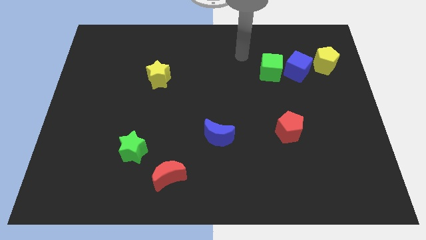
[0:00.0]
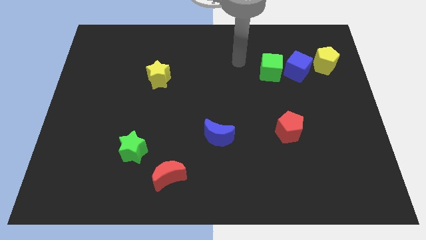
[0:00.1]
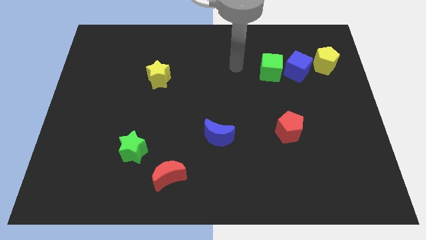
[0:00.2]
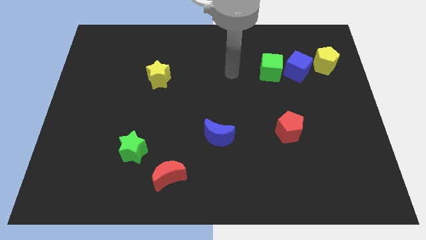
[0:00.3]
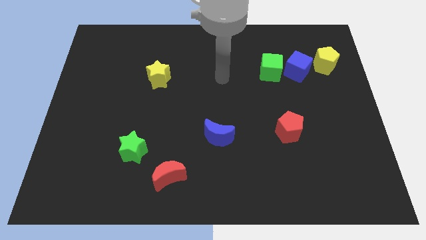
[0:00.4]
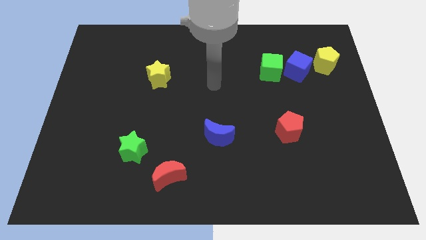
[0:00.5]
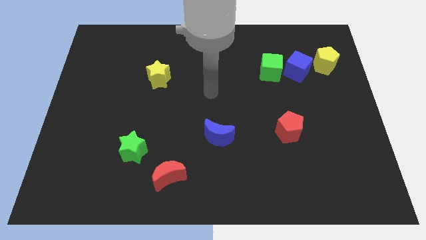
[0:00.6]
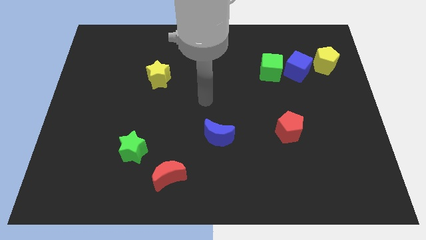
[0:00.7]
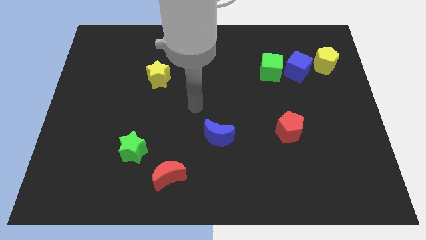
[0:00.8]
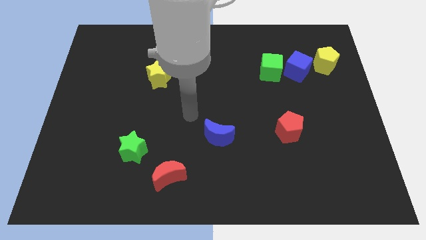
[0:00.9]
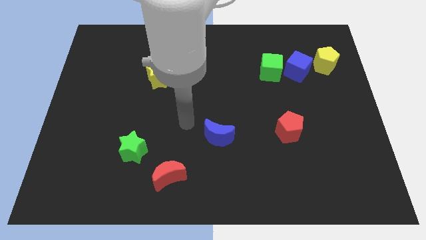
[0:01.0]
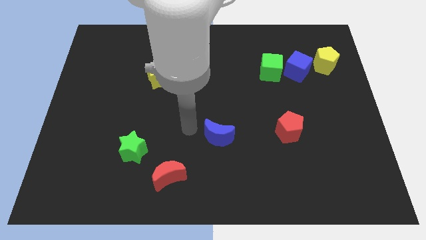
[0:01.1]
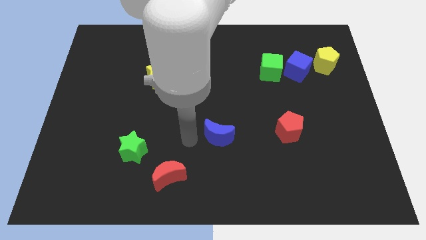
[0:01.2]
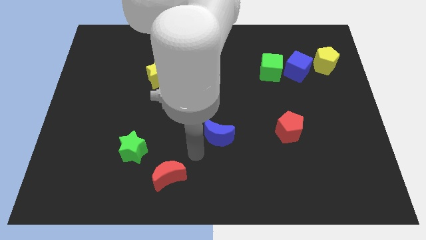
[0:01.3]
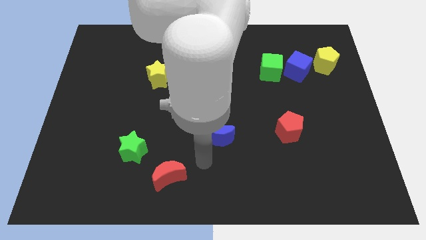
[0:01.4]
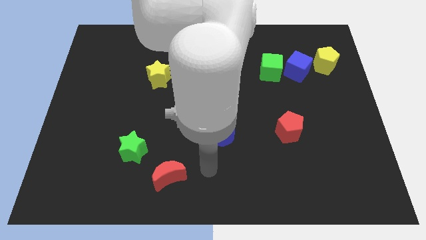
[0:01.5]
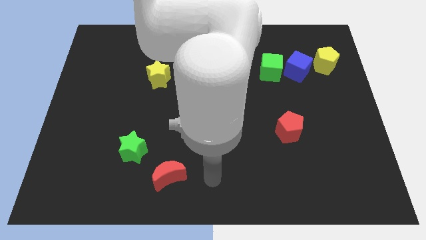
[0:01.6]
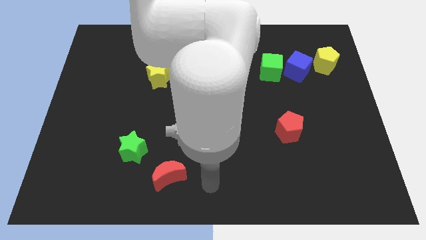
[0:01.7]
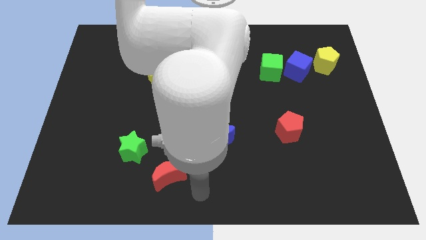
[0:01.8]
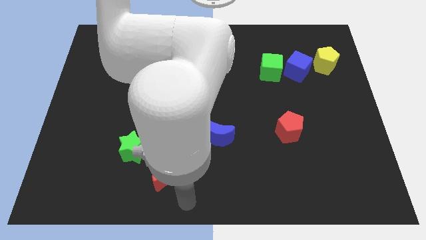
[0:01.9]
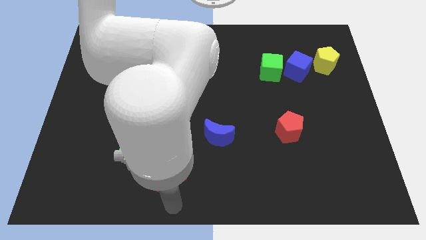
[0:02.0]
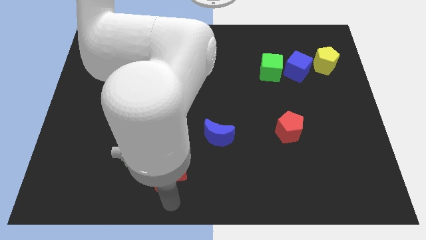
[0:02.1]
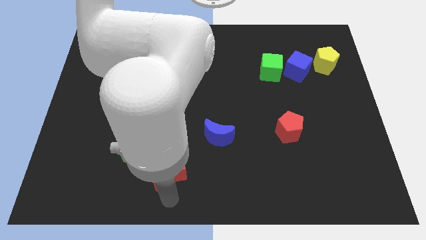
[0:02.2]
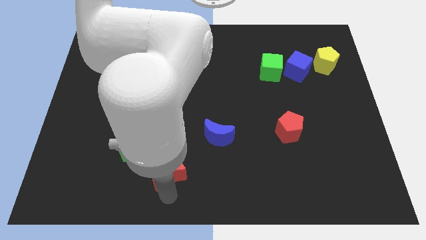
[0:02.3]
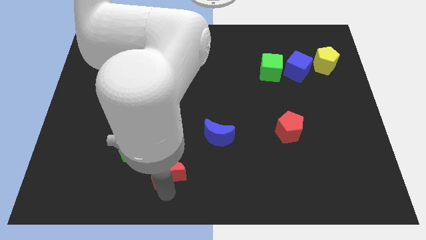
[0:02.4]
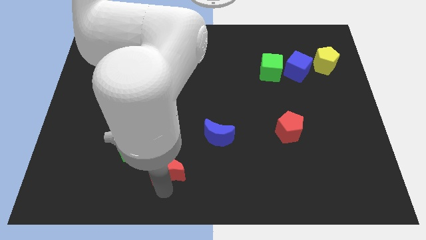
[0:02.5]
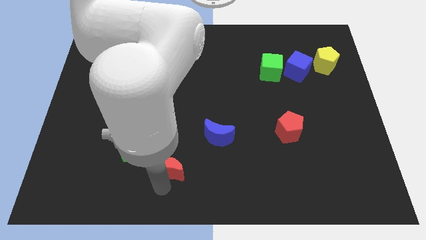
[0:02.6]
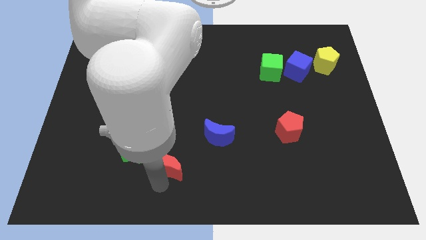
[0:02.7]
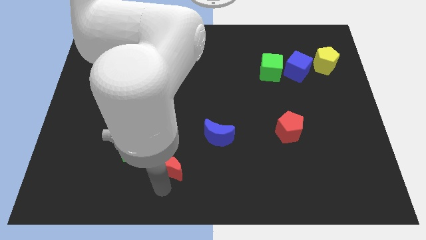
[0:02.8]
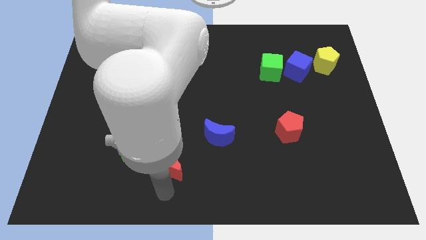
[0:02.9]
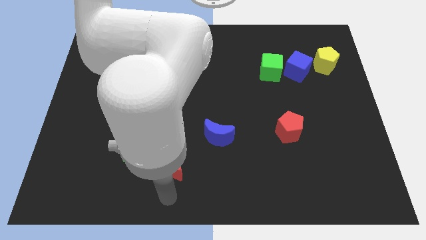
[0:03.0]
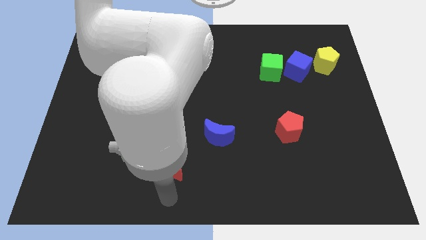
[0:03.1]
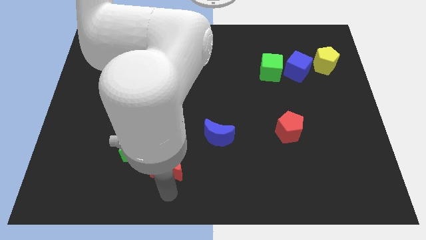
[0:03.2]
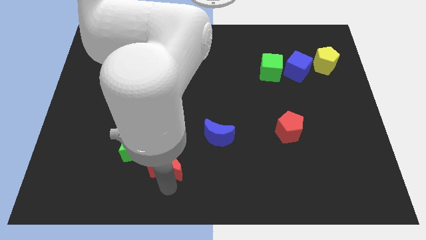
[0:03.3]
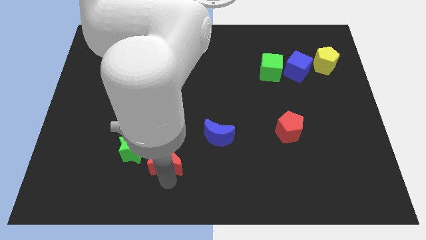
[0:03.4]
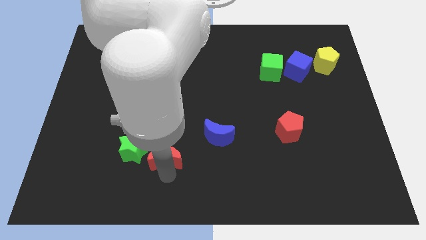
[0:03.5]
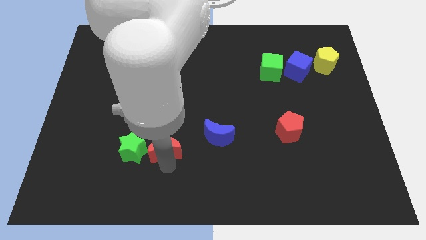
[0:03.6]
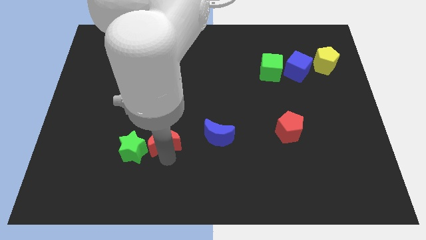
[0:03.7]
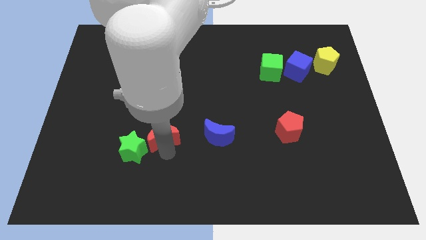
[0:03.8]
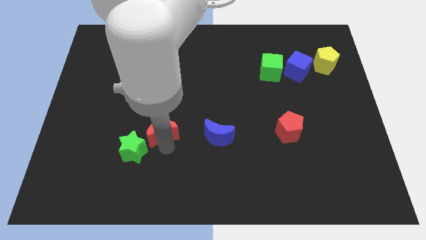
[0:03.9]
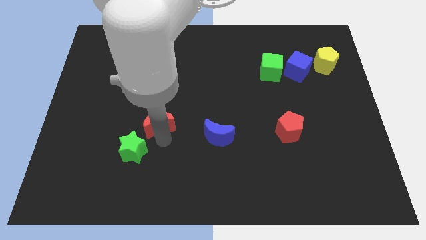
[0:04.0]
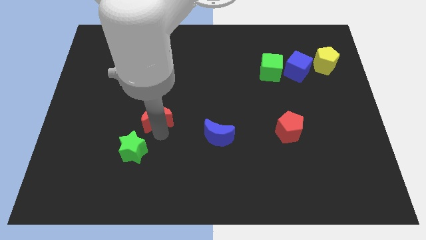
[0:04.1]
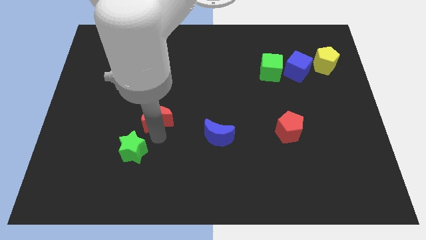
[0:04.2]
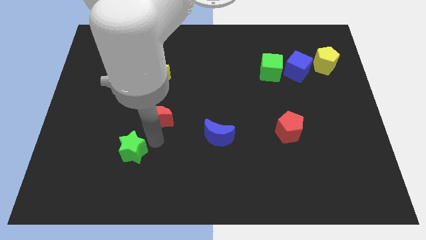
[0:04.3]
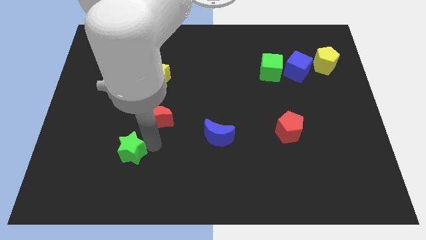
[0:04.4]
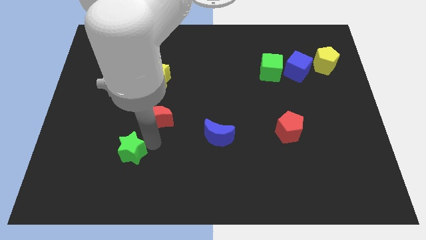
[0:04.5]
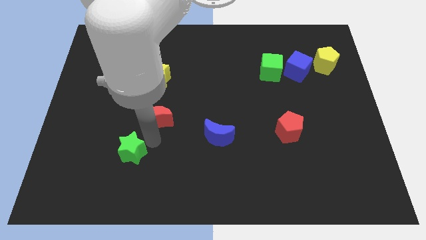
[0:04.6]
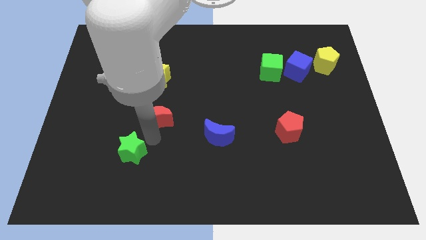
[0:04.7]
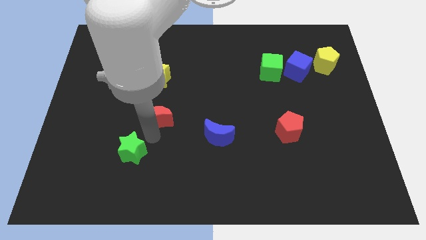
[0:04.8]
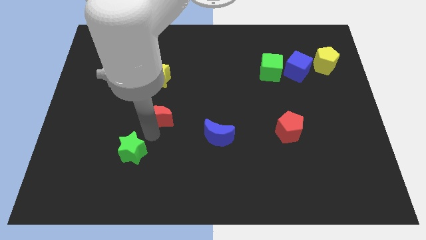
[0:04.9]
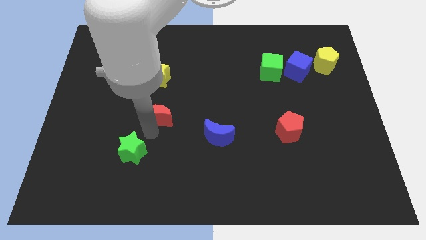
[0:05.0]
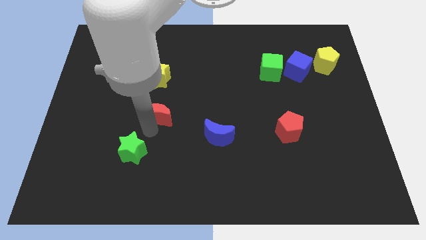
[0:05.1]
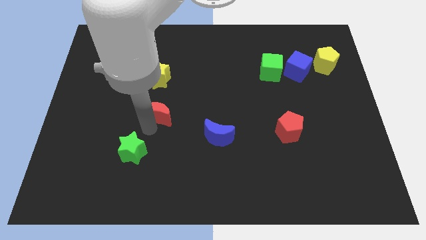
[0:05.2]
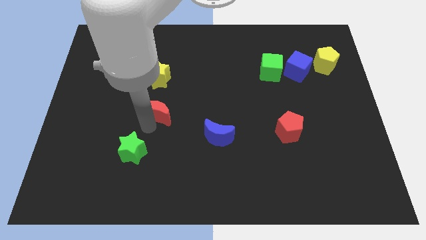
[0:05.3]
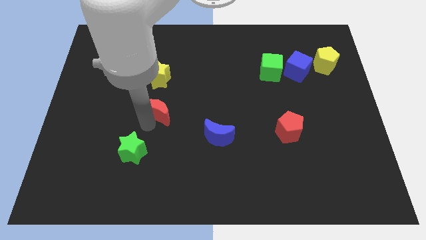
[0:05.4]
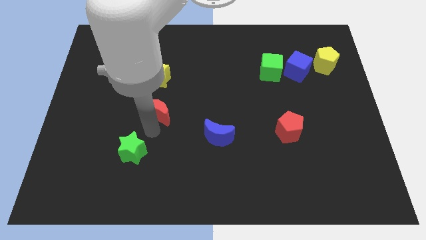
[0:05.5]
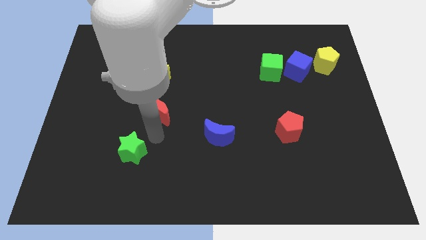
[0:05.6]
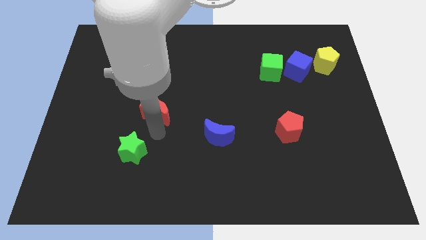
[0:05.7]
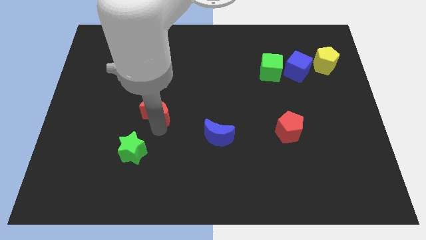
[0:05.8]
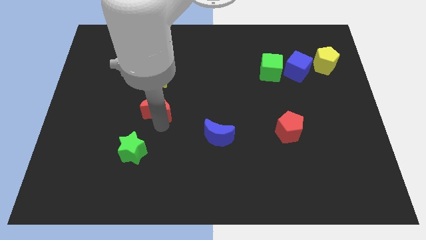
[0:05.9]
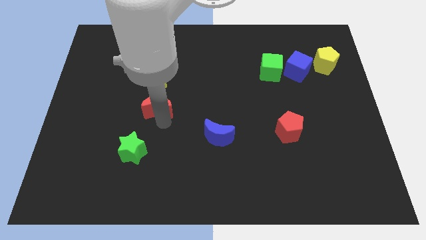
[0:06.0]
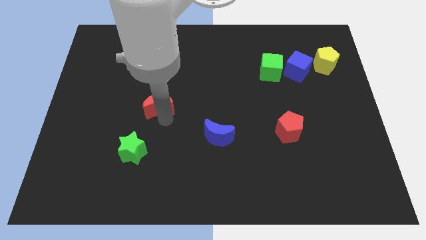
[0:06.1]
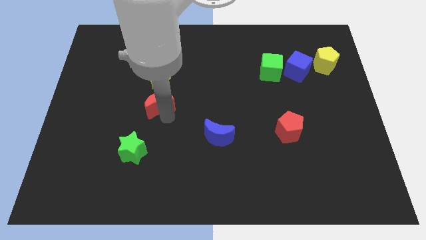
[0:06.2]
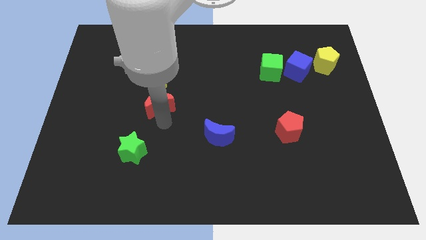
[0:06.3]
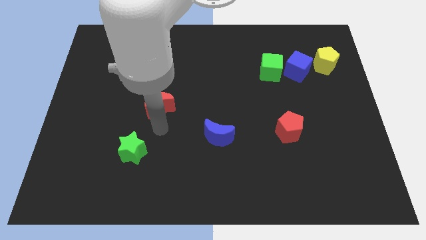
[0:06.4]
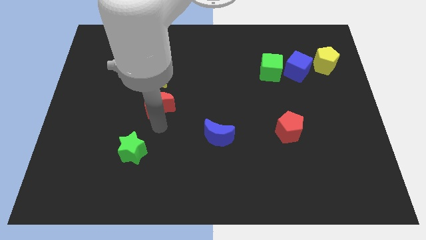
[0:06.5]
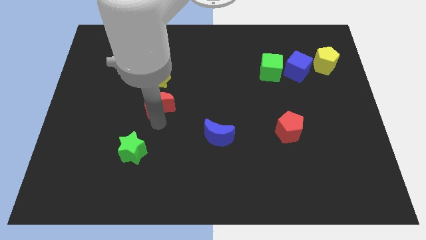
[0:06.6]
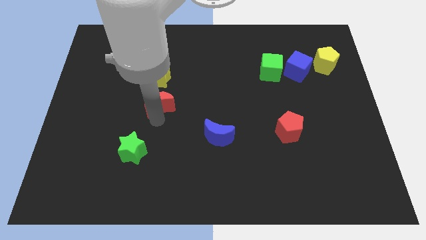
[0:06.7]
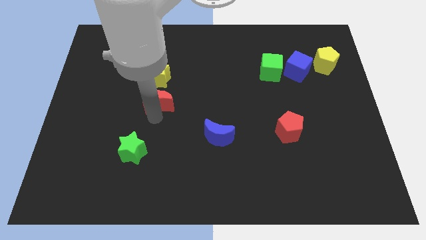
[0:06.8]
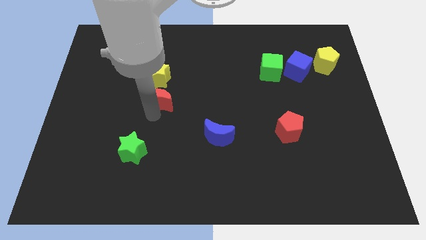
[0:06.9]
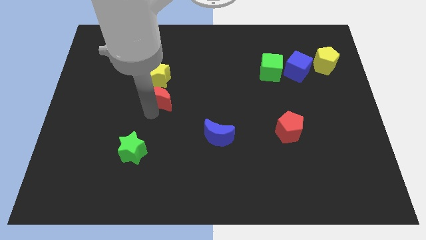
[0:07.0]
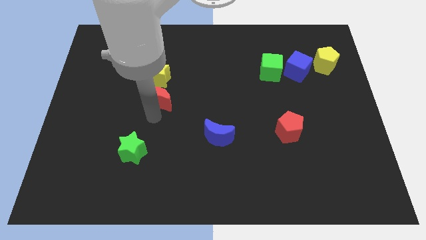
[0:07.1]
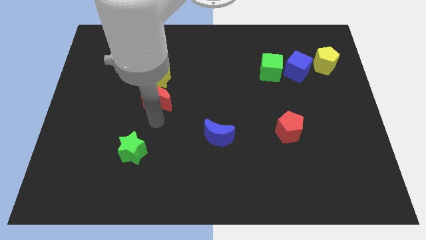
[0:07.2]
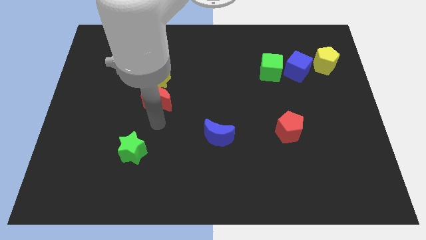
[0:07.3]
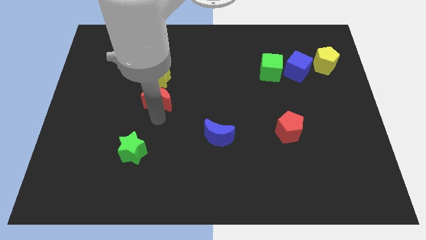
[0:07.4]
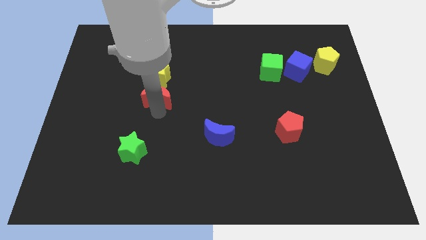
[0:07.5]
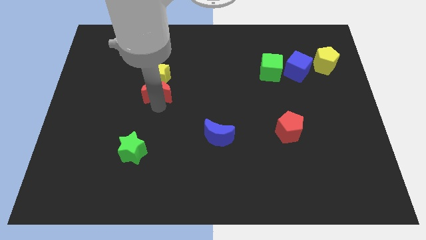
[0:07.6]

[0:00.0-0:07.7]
slide the red moon close to the yellow star
